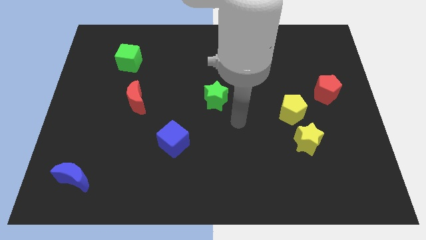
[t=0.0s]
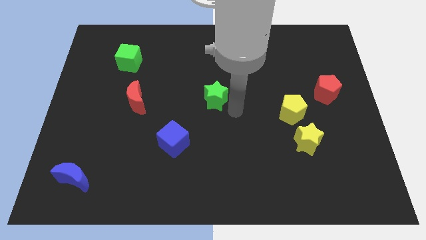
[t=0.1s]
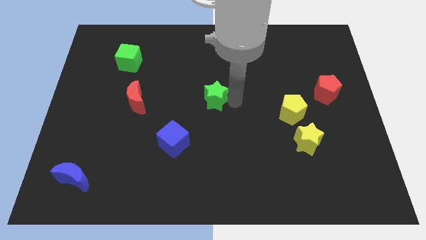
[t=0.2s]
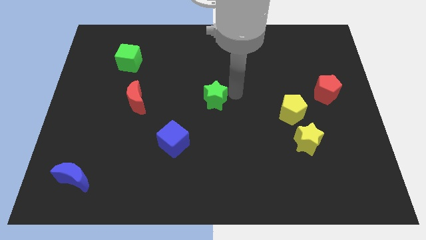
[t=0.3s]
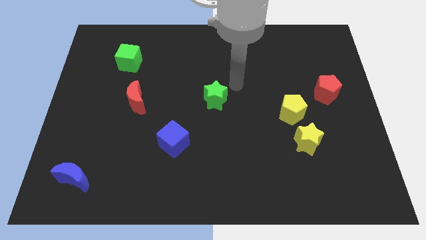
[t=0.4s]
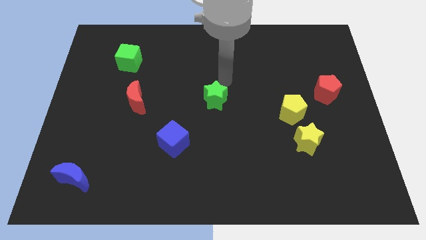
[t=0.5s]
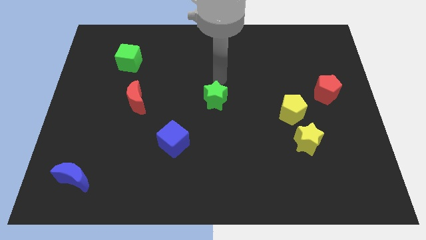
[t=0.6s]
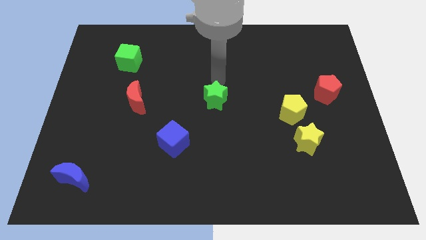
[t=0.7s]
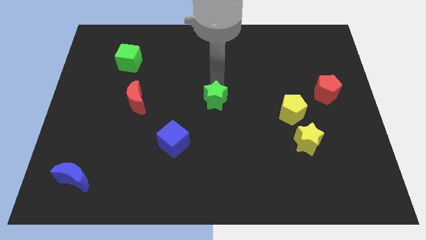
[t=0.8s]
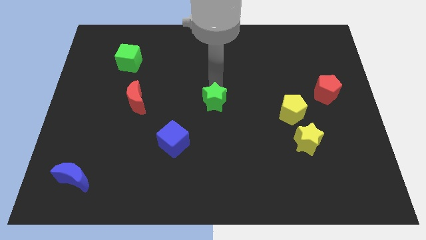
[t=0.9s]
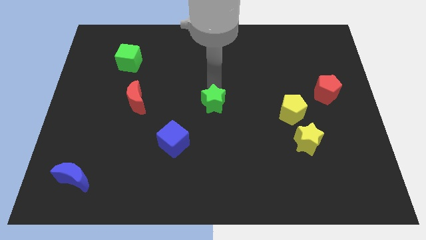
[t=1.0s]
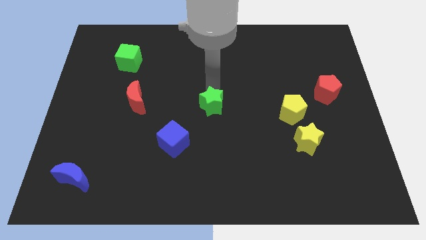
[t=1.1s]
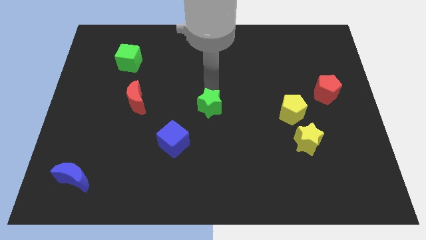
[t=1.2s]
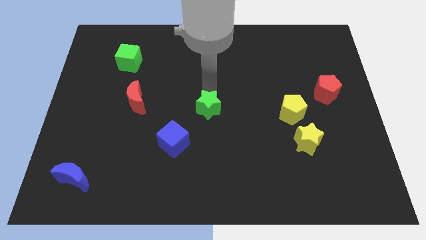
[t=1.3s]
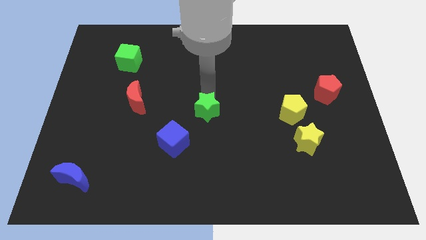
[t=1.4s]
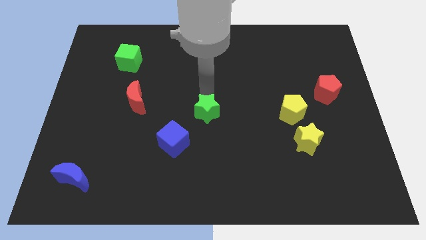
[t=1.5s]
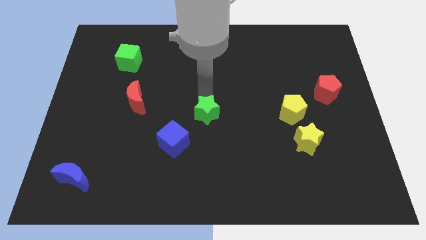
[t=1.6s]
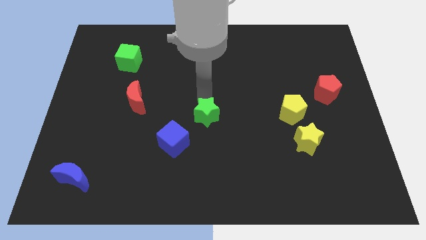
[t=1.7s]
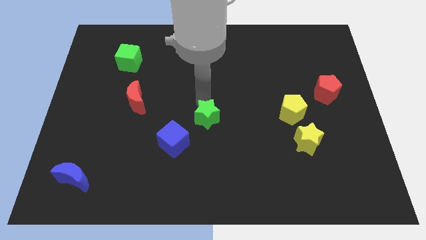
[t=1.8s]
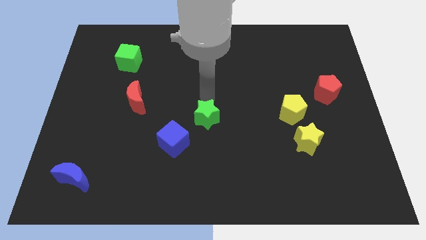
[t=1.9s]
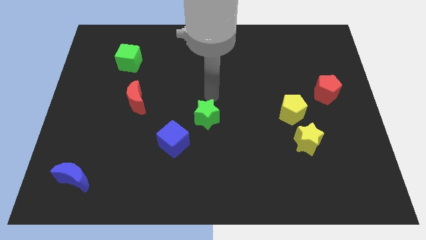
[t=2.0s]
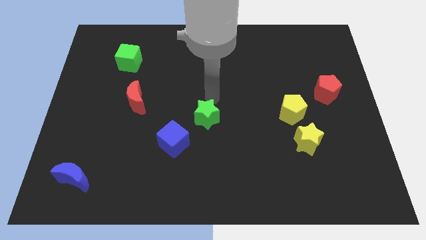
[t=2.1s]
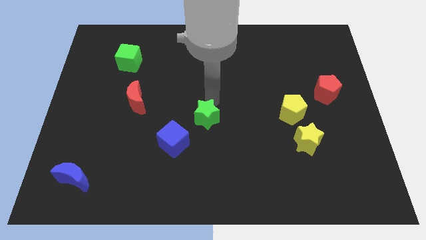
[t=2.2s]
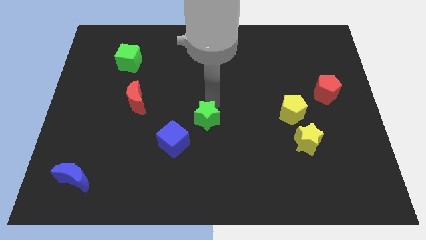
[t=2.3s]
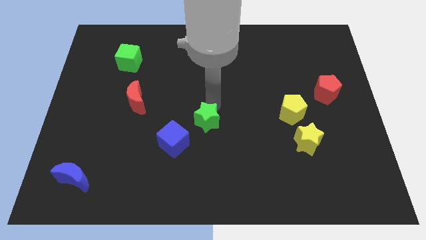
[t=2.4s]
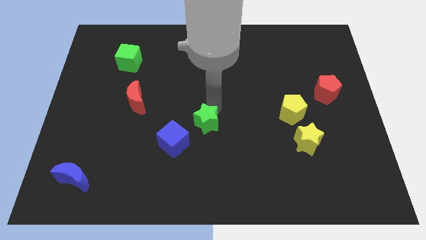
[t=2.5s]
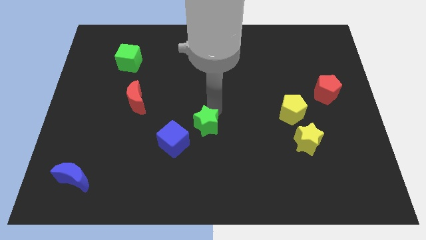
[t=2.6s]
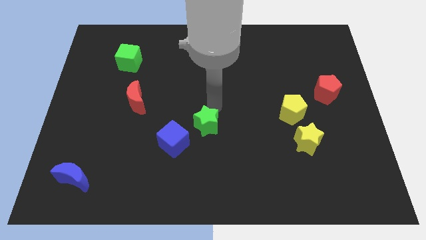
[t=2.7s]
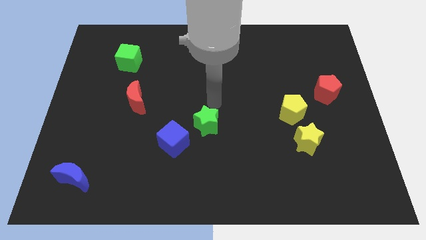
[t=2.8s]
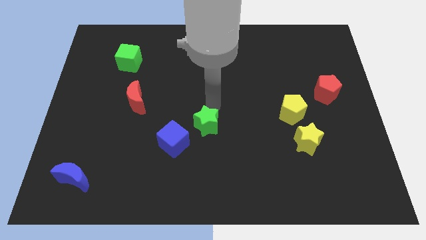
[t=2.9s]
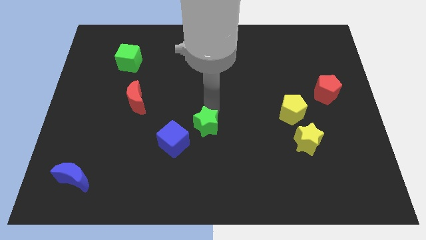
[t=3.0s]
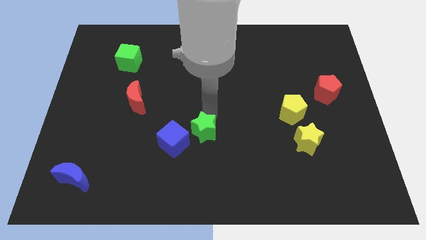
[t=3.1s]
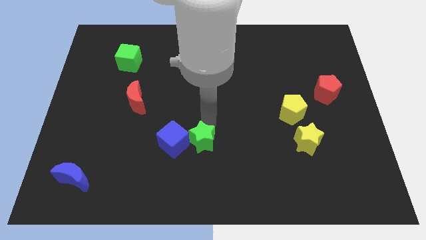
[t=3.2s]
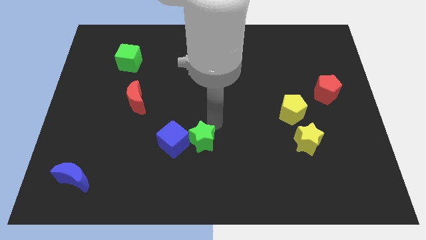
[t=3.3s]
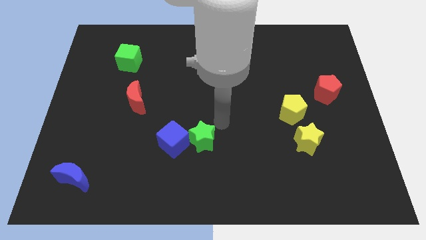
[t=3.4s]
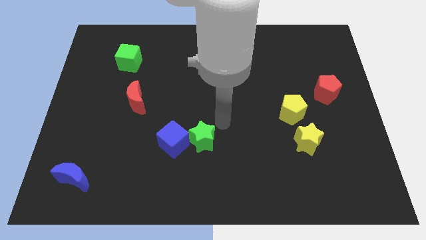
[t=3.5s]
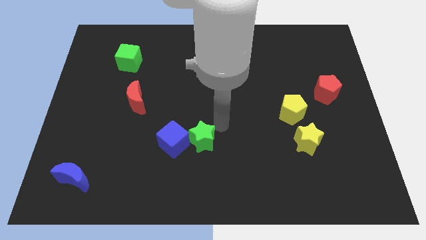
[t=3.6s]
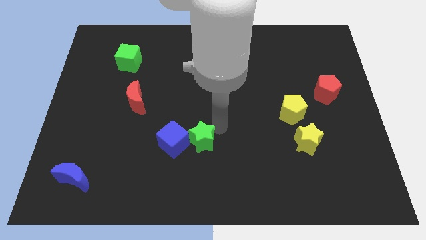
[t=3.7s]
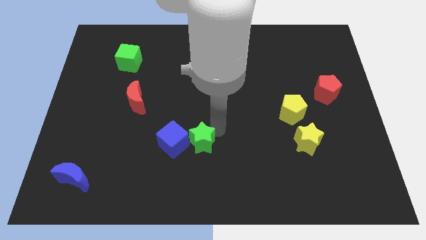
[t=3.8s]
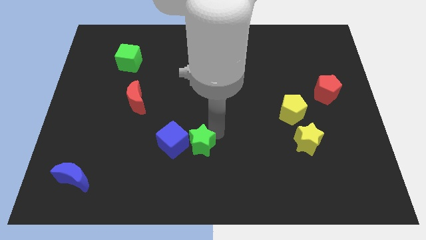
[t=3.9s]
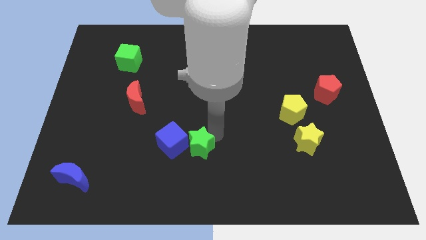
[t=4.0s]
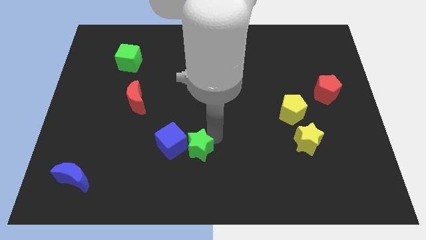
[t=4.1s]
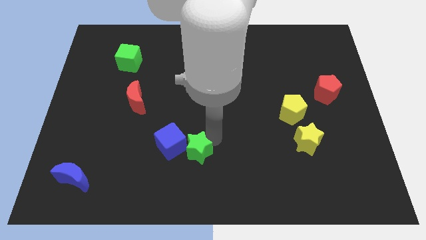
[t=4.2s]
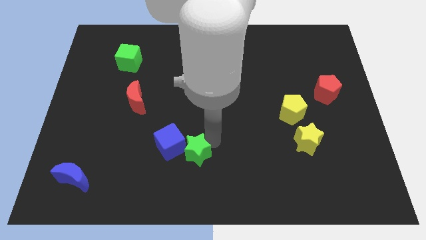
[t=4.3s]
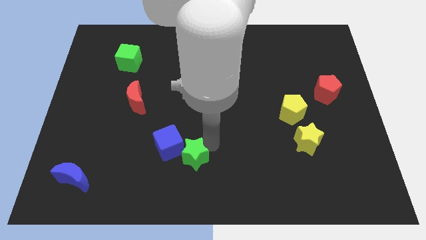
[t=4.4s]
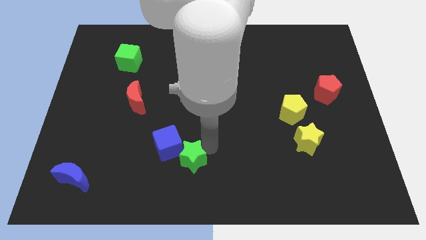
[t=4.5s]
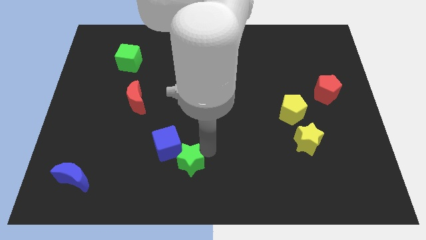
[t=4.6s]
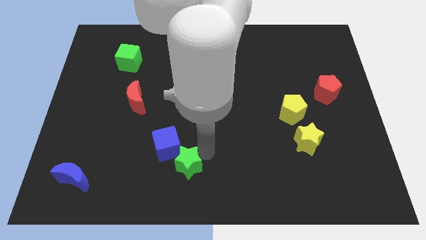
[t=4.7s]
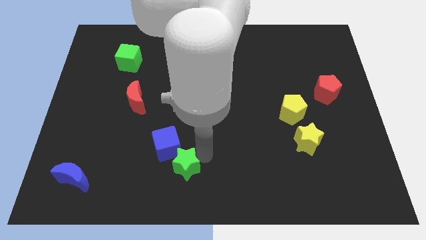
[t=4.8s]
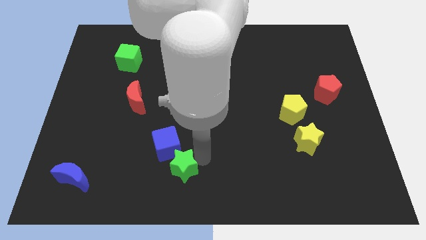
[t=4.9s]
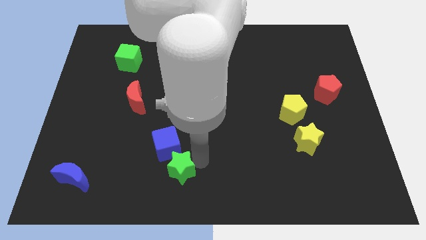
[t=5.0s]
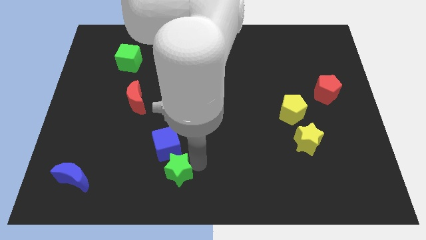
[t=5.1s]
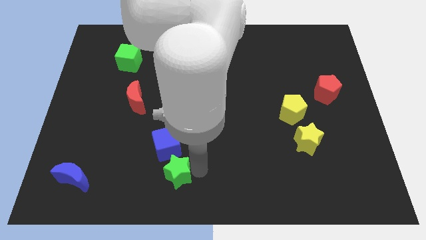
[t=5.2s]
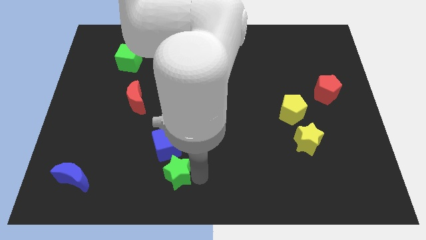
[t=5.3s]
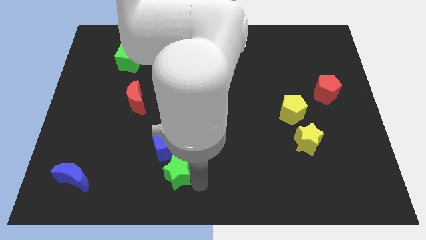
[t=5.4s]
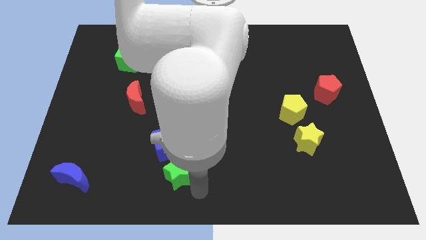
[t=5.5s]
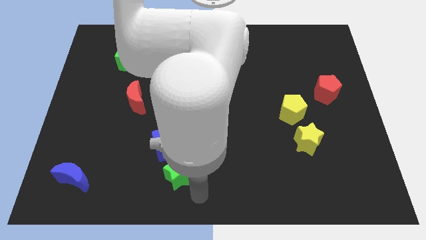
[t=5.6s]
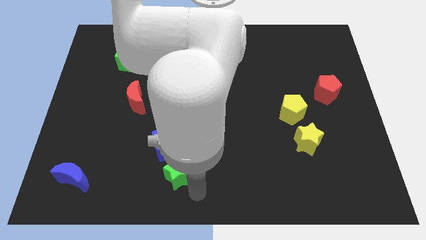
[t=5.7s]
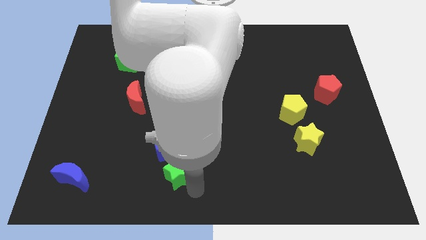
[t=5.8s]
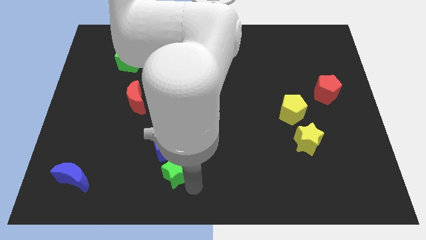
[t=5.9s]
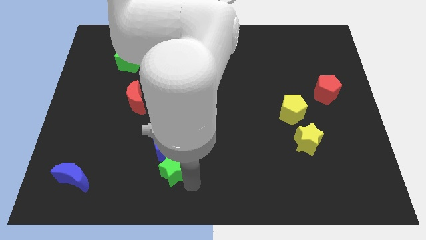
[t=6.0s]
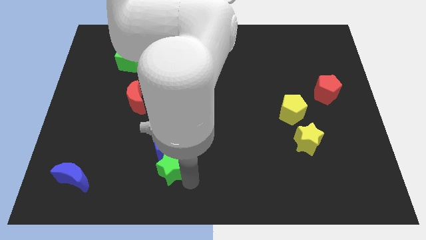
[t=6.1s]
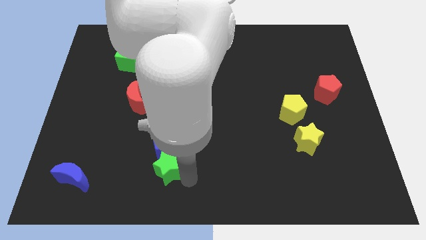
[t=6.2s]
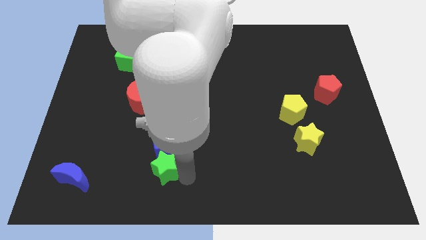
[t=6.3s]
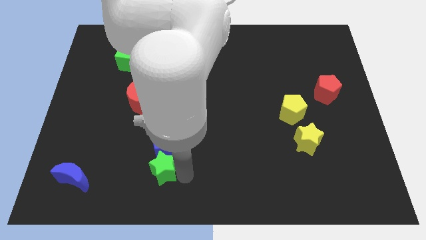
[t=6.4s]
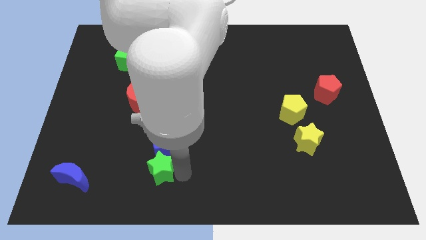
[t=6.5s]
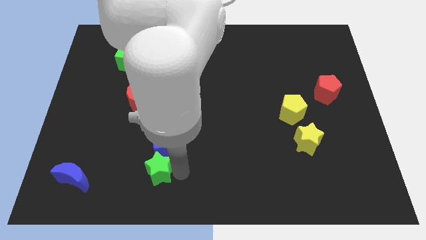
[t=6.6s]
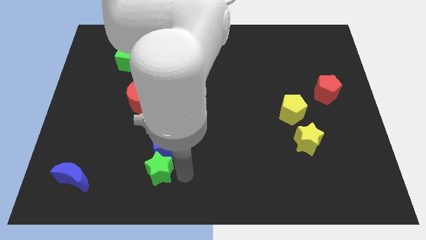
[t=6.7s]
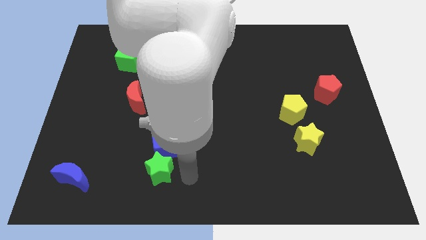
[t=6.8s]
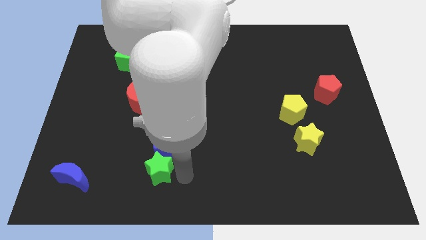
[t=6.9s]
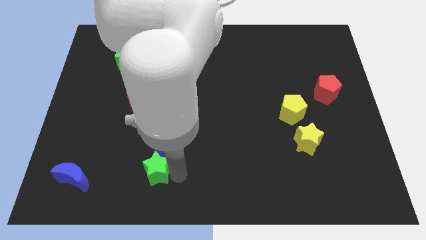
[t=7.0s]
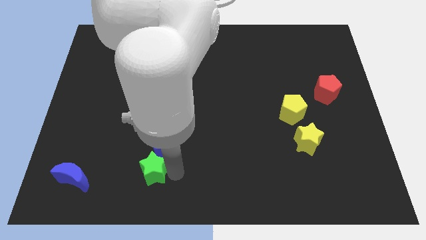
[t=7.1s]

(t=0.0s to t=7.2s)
slide the green star to the right side of the blue moon

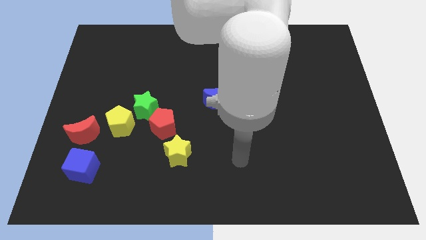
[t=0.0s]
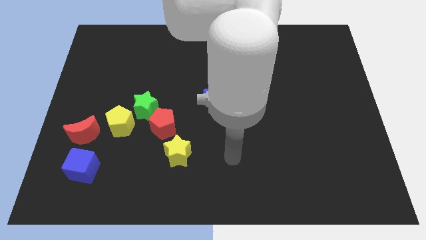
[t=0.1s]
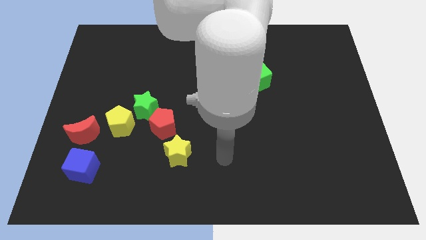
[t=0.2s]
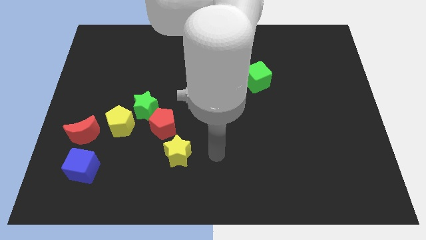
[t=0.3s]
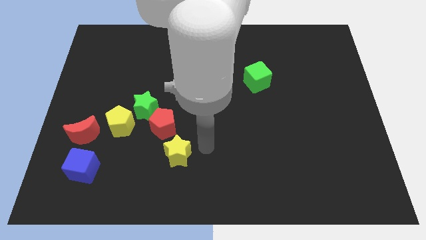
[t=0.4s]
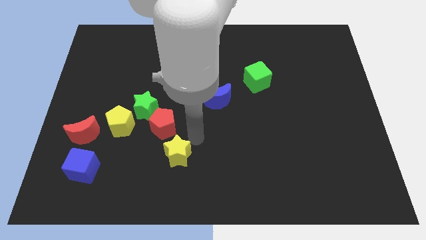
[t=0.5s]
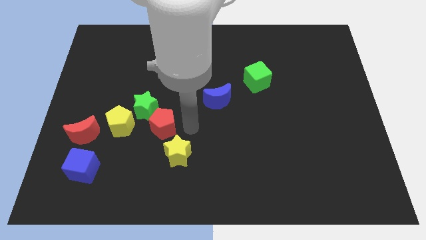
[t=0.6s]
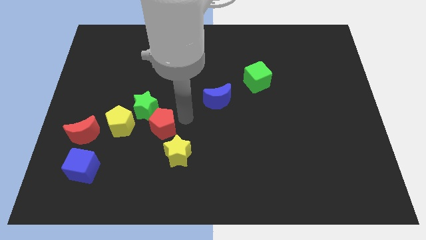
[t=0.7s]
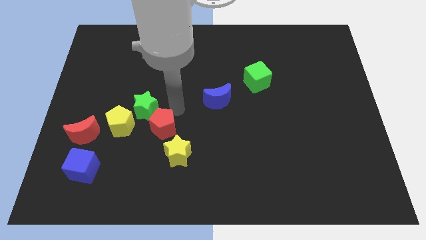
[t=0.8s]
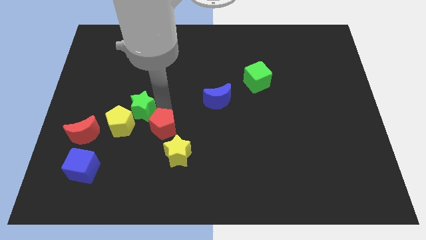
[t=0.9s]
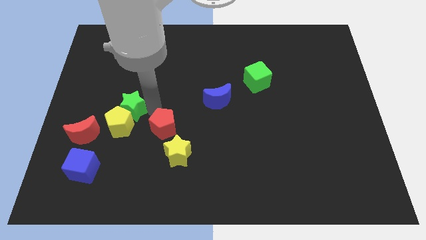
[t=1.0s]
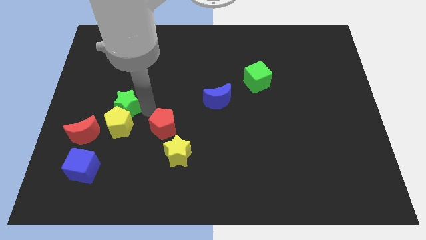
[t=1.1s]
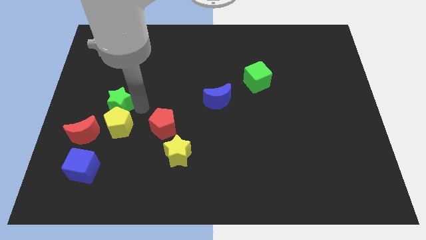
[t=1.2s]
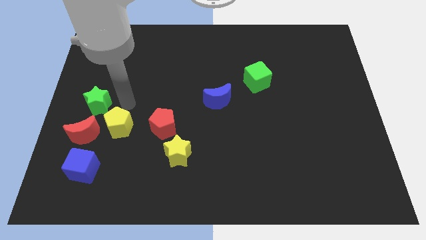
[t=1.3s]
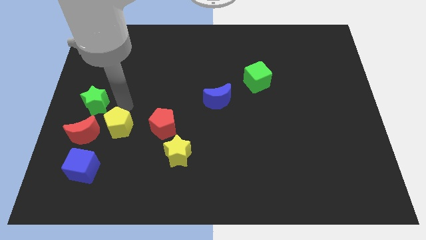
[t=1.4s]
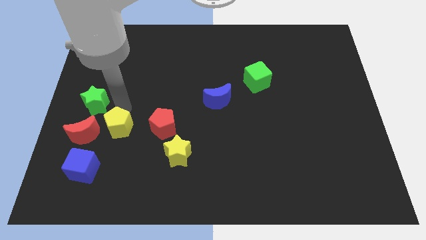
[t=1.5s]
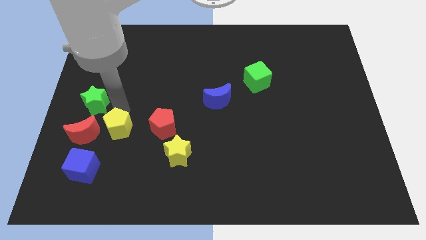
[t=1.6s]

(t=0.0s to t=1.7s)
push the yellow pentagon to the top right side of the blue cube
